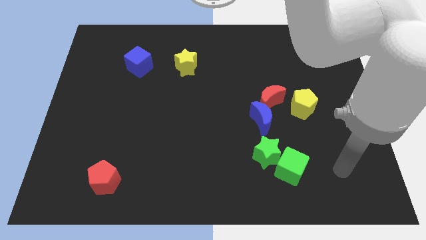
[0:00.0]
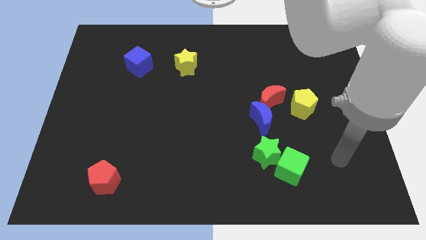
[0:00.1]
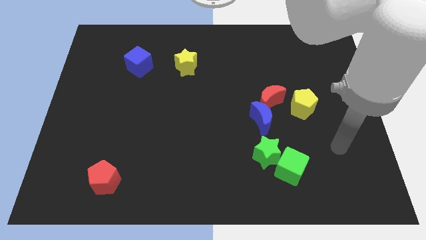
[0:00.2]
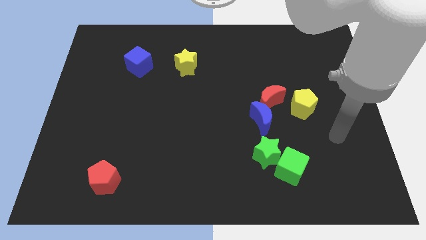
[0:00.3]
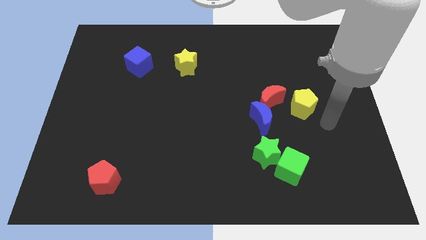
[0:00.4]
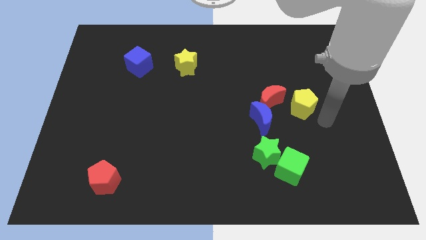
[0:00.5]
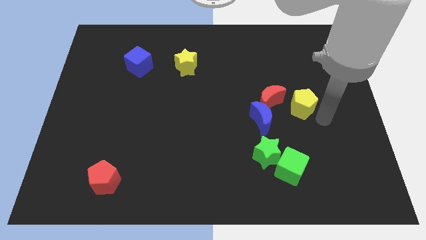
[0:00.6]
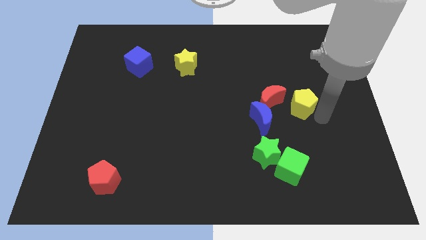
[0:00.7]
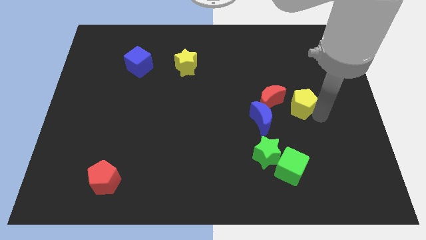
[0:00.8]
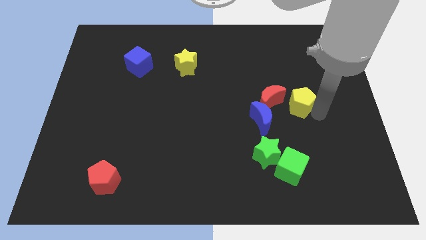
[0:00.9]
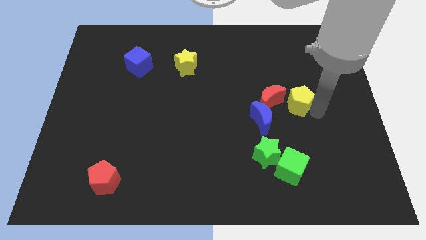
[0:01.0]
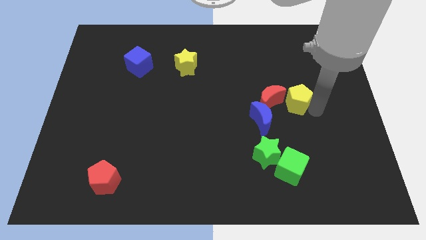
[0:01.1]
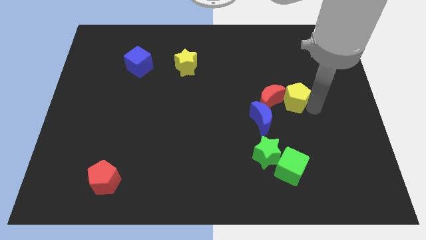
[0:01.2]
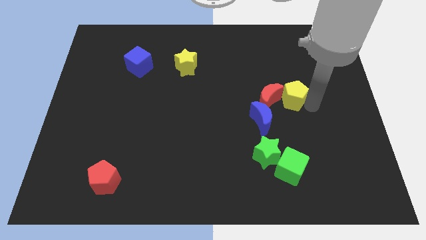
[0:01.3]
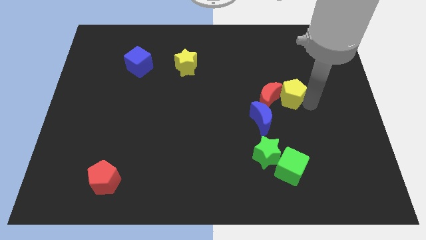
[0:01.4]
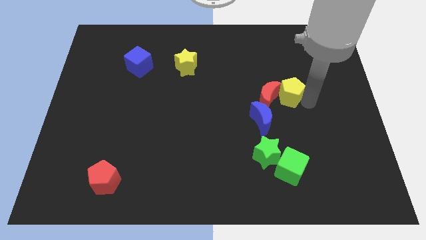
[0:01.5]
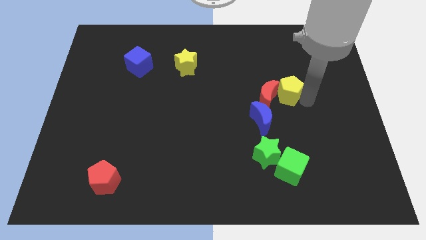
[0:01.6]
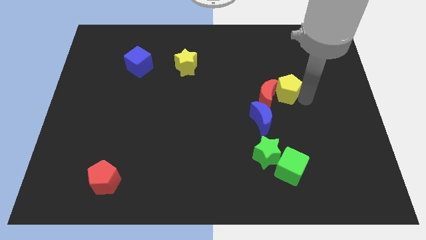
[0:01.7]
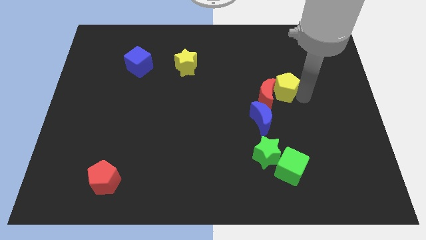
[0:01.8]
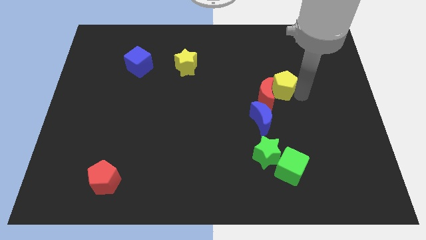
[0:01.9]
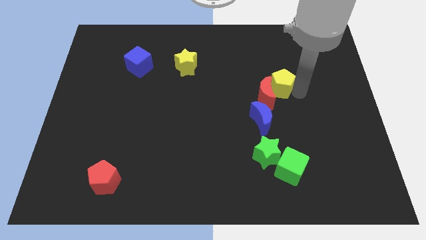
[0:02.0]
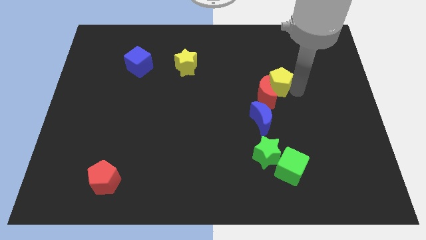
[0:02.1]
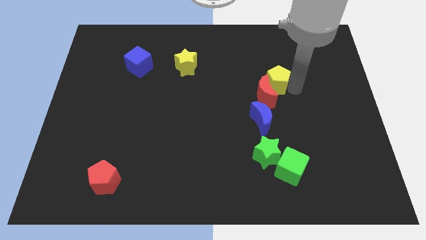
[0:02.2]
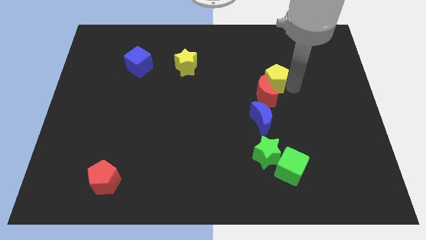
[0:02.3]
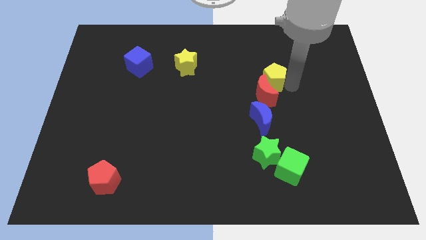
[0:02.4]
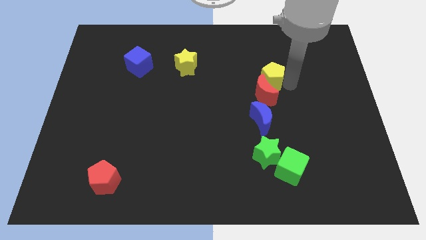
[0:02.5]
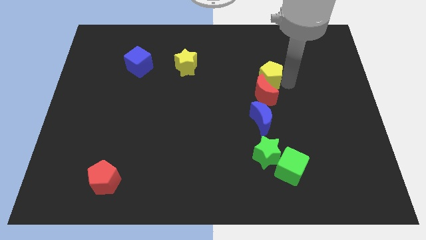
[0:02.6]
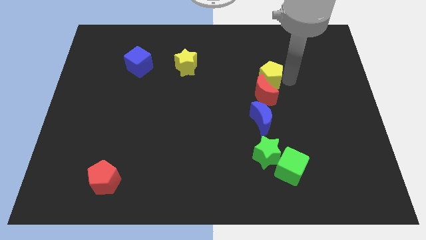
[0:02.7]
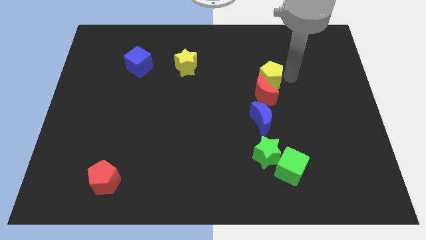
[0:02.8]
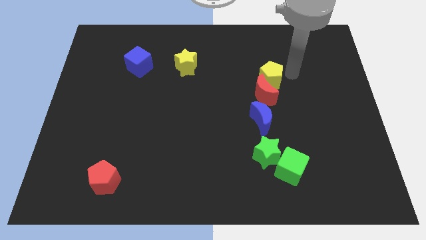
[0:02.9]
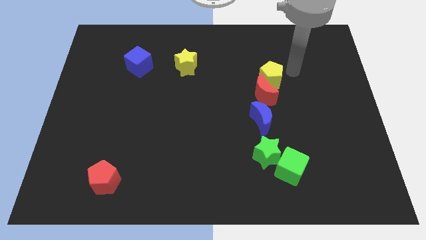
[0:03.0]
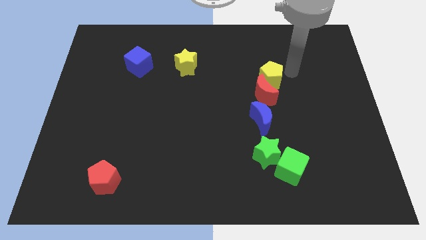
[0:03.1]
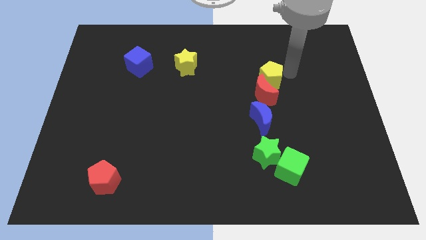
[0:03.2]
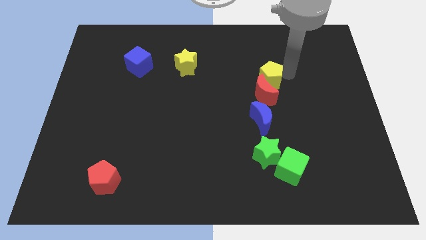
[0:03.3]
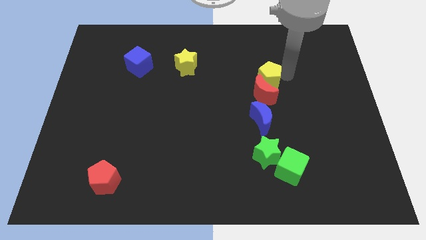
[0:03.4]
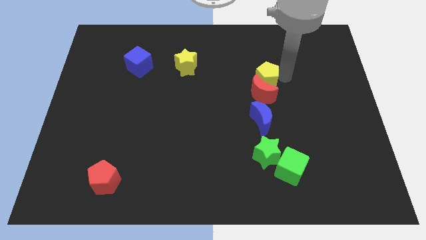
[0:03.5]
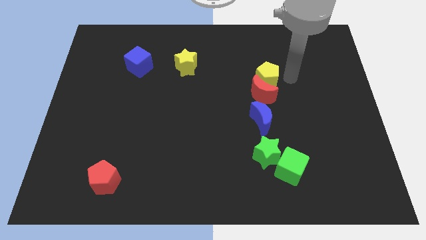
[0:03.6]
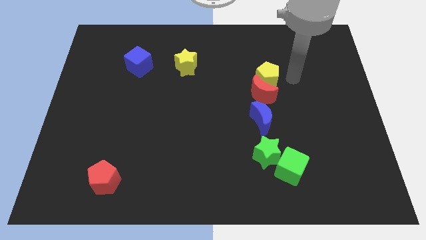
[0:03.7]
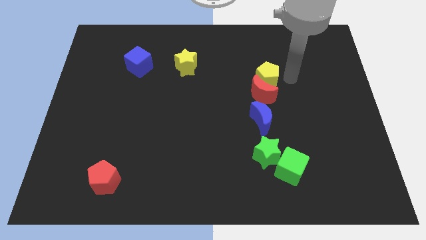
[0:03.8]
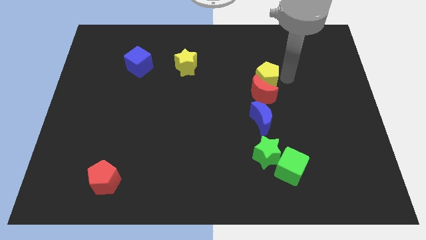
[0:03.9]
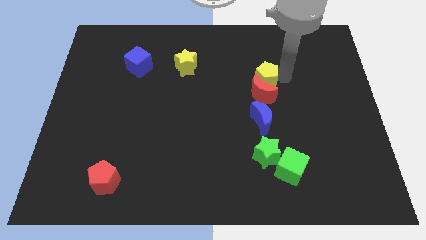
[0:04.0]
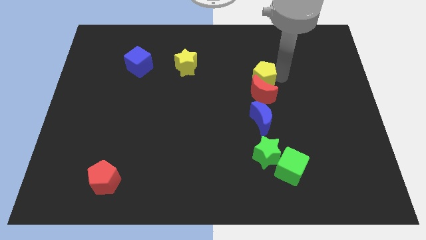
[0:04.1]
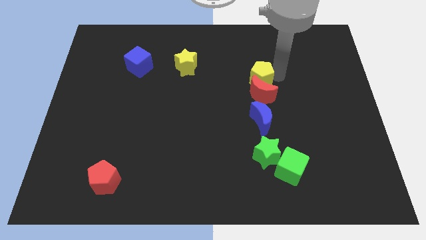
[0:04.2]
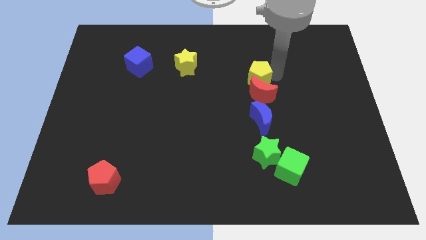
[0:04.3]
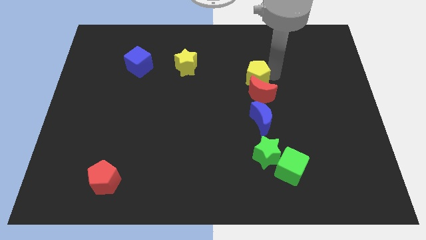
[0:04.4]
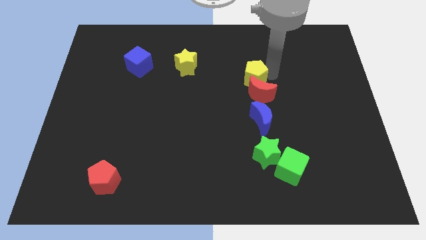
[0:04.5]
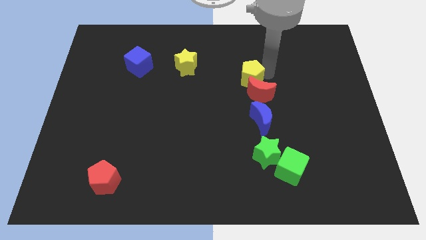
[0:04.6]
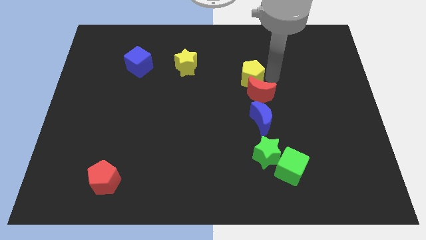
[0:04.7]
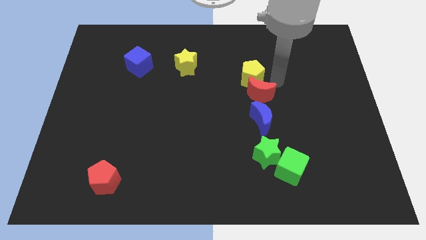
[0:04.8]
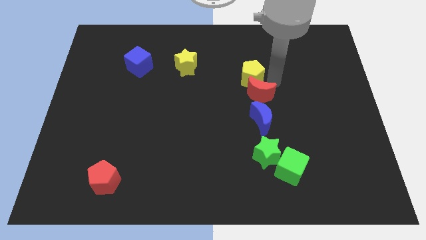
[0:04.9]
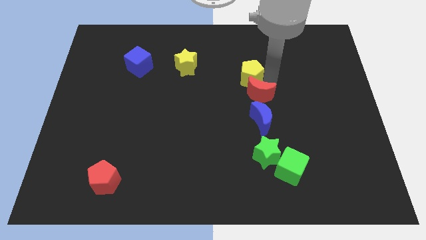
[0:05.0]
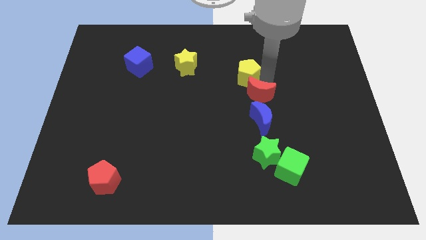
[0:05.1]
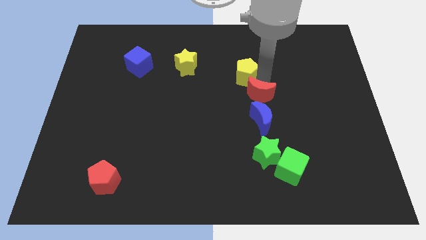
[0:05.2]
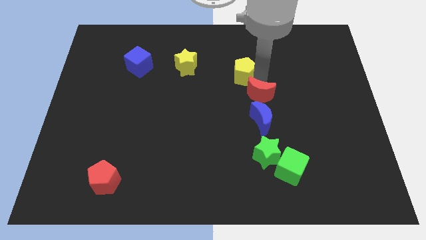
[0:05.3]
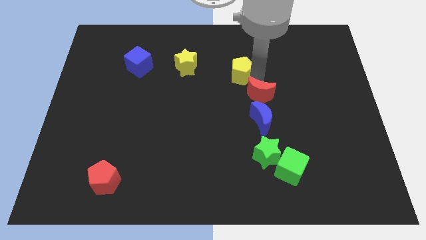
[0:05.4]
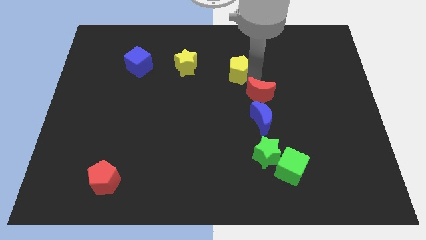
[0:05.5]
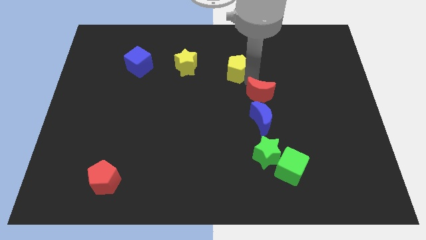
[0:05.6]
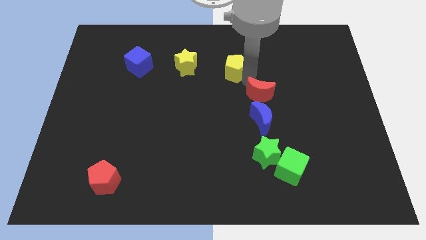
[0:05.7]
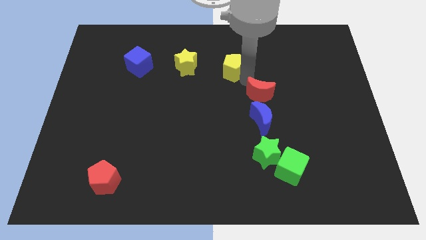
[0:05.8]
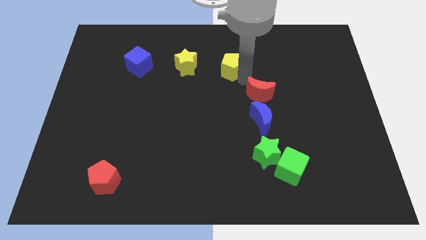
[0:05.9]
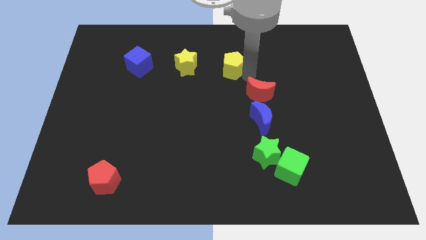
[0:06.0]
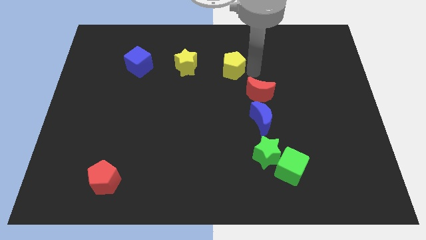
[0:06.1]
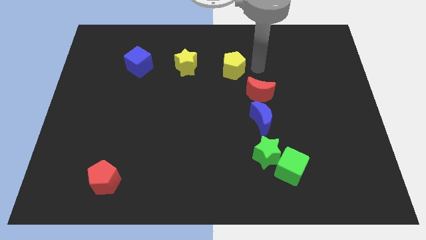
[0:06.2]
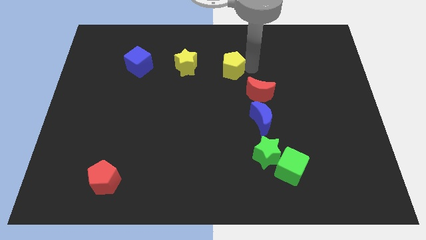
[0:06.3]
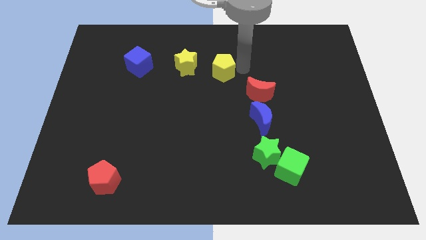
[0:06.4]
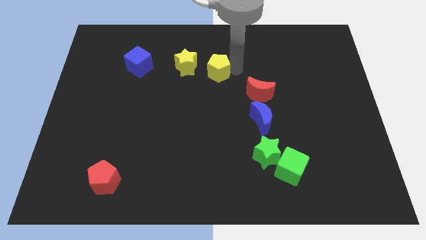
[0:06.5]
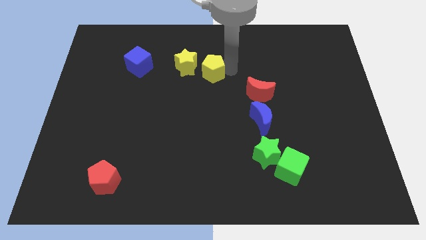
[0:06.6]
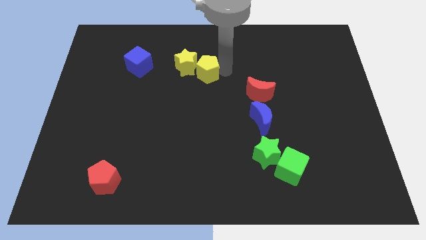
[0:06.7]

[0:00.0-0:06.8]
push the yellow pentagon next to the yellow star

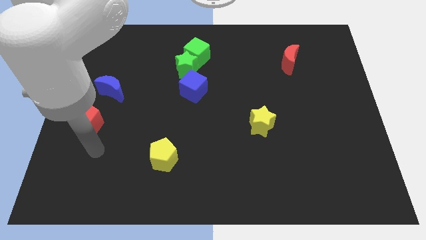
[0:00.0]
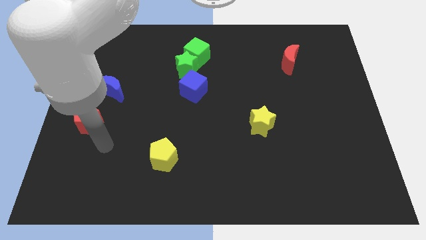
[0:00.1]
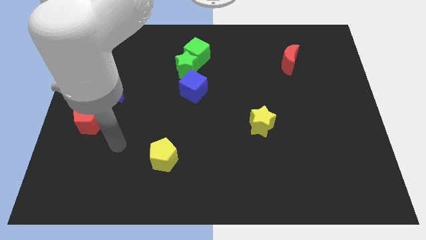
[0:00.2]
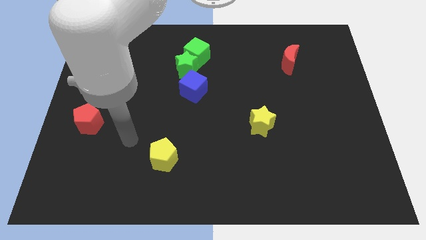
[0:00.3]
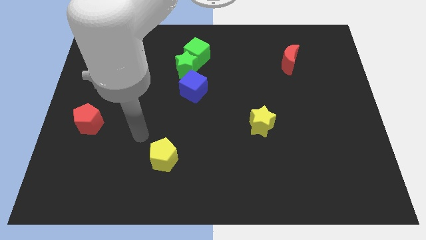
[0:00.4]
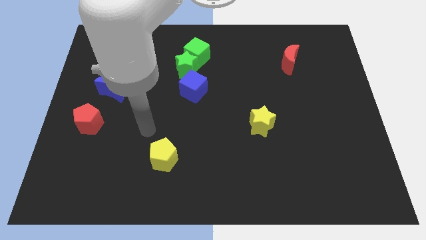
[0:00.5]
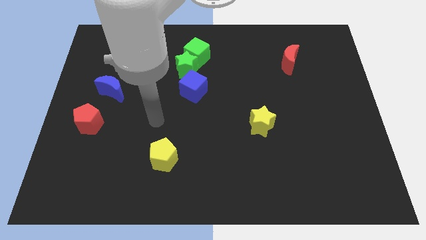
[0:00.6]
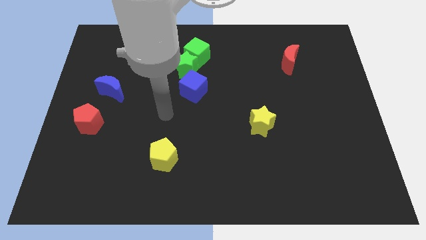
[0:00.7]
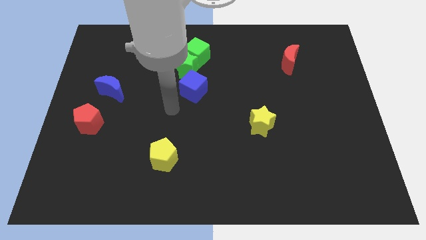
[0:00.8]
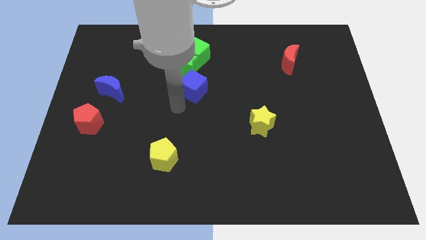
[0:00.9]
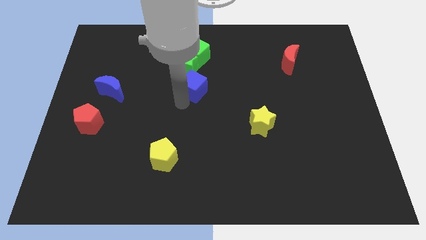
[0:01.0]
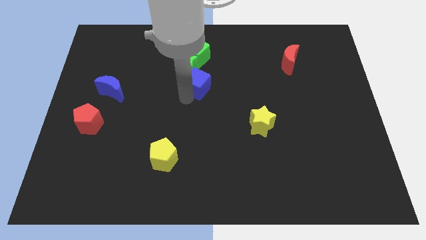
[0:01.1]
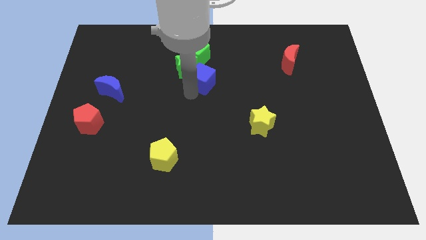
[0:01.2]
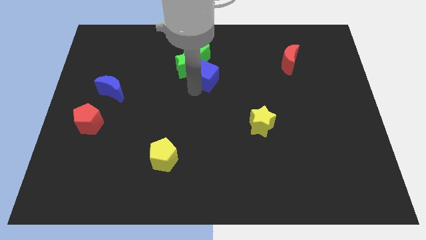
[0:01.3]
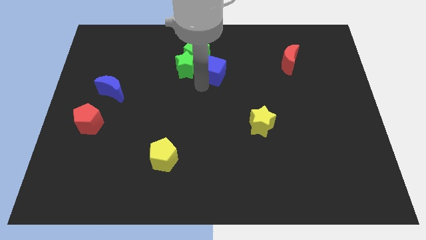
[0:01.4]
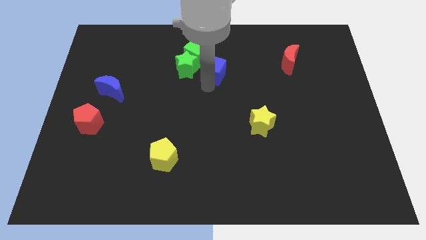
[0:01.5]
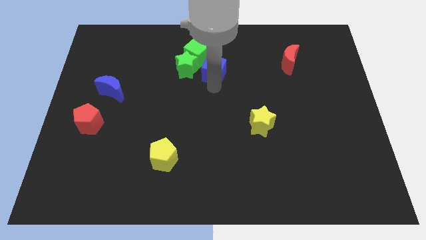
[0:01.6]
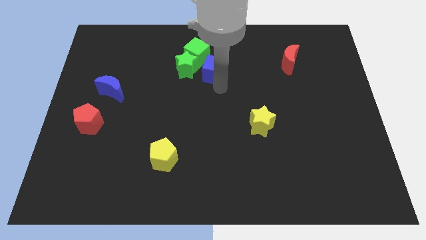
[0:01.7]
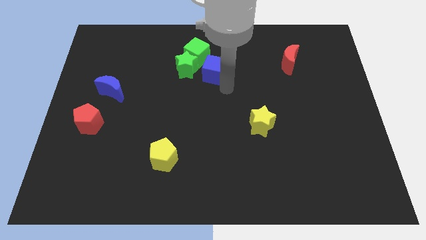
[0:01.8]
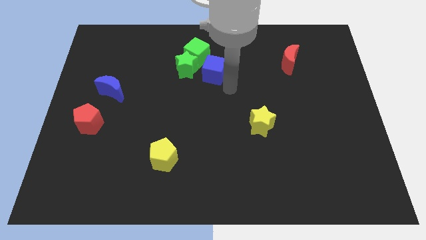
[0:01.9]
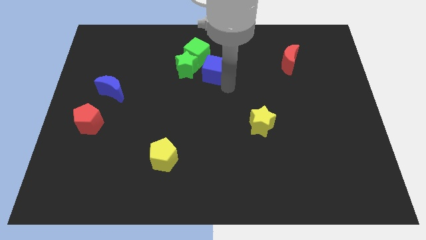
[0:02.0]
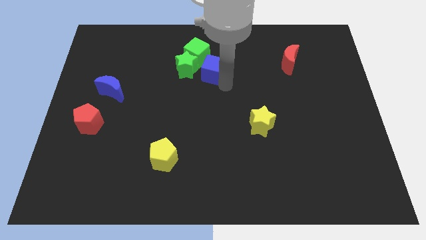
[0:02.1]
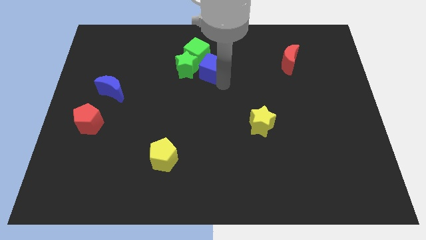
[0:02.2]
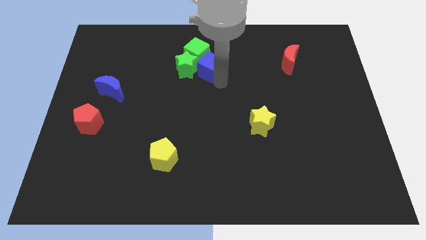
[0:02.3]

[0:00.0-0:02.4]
slide the blue cube close to the green cube
